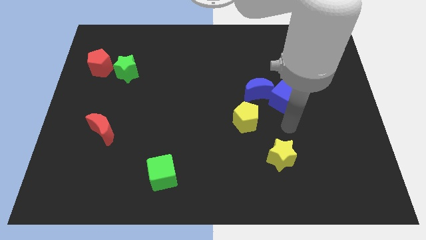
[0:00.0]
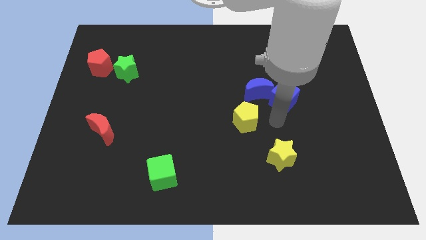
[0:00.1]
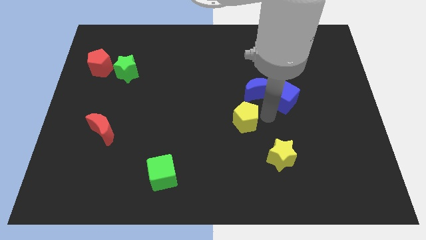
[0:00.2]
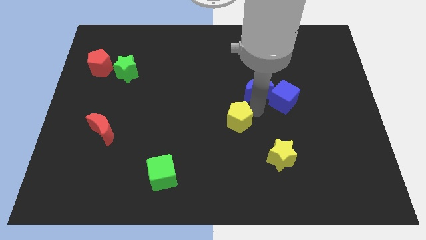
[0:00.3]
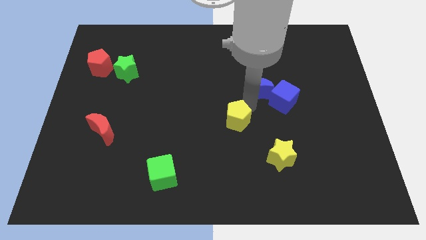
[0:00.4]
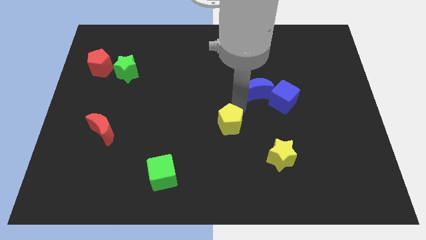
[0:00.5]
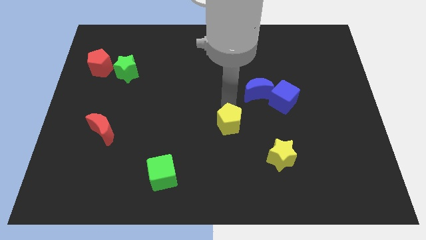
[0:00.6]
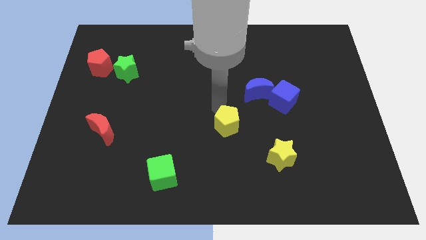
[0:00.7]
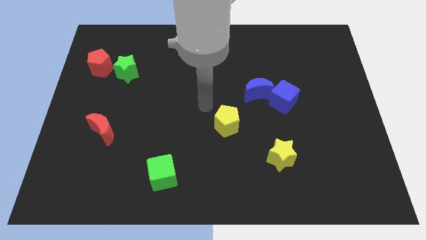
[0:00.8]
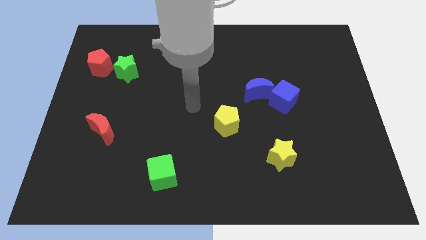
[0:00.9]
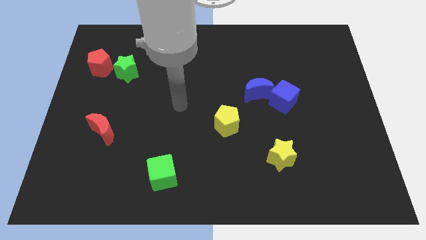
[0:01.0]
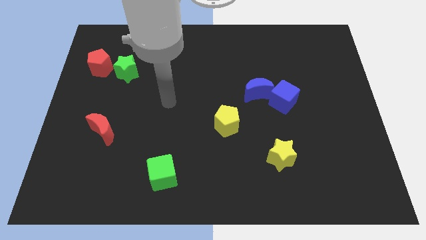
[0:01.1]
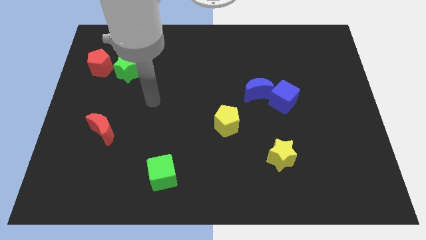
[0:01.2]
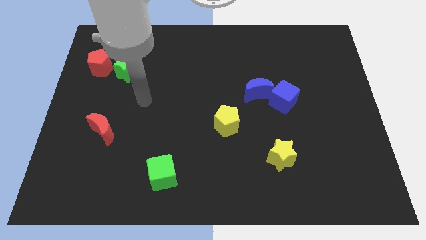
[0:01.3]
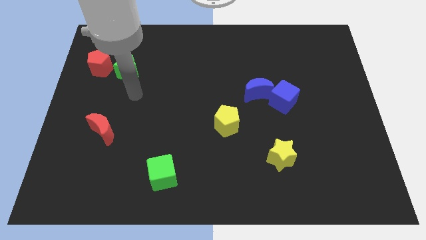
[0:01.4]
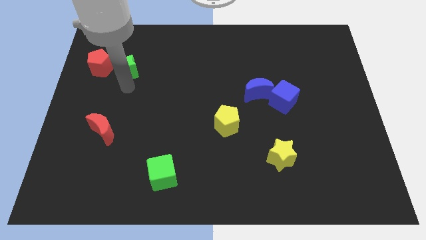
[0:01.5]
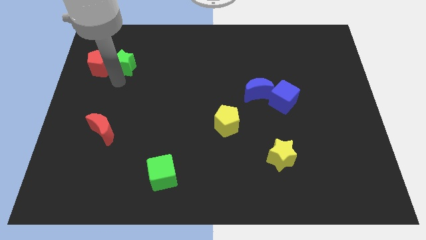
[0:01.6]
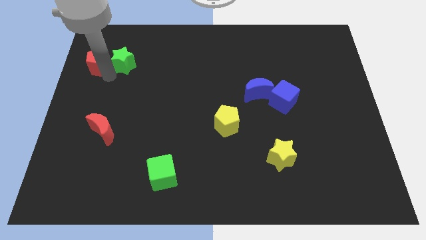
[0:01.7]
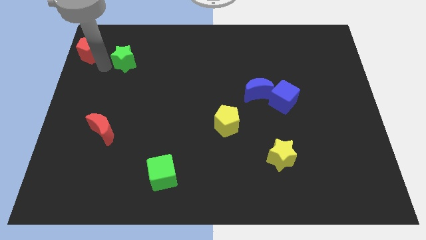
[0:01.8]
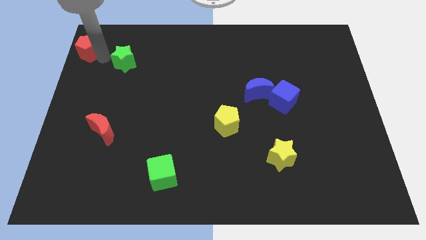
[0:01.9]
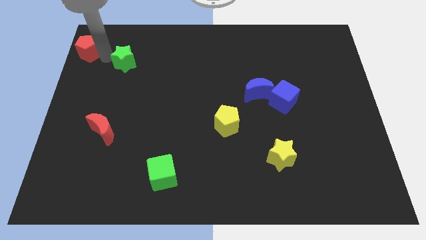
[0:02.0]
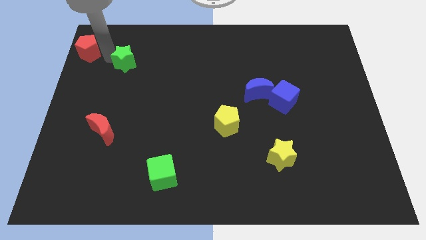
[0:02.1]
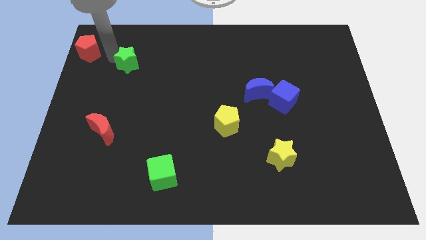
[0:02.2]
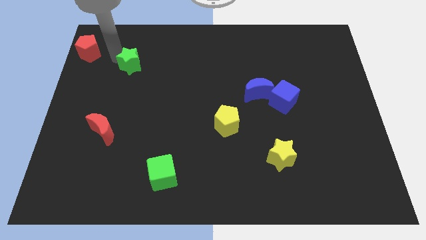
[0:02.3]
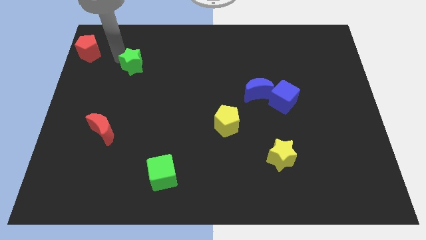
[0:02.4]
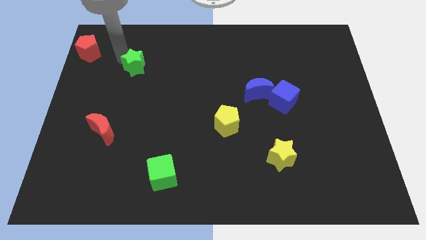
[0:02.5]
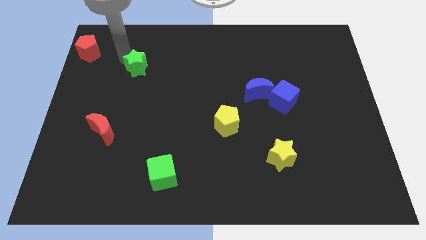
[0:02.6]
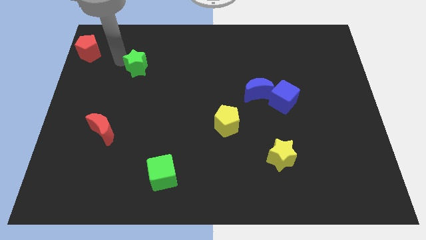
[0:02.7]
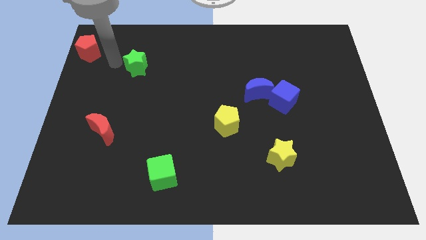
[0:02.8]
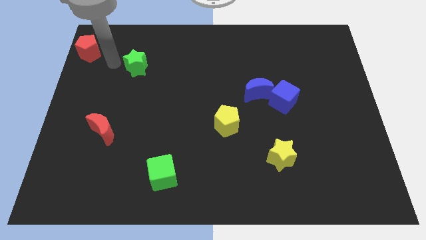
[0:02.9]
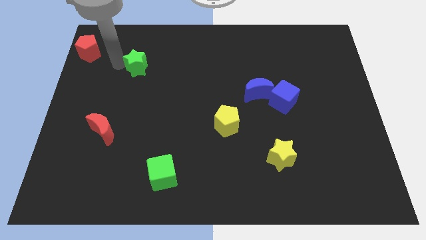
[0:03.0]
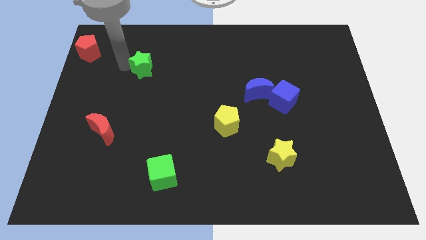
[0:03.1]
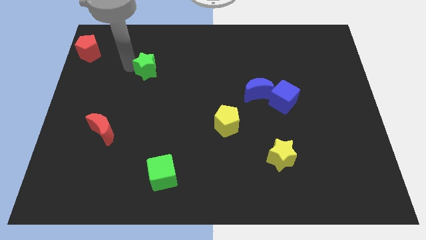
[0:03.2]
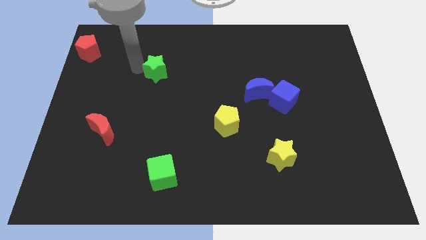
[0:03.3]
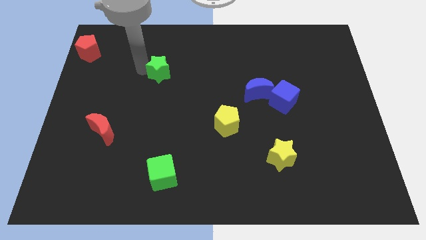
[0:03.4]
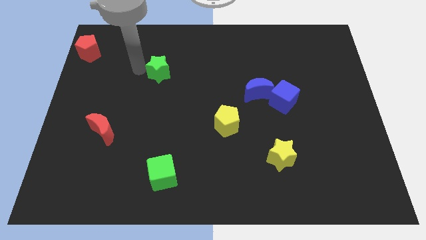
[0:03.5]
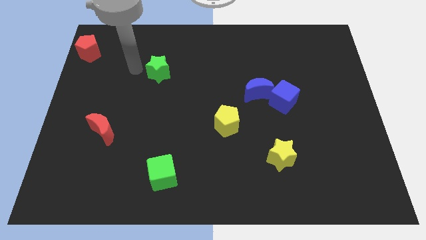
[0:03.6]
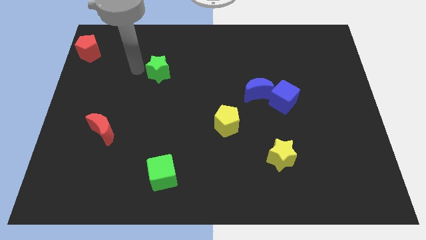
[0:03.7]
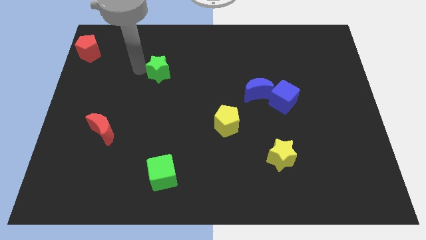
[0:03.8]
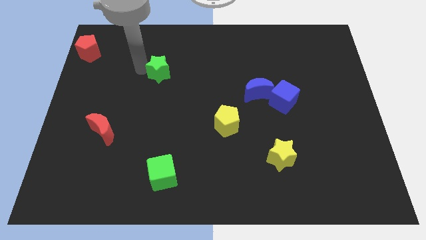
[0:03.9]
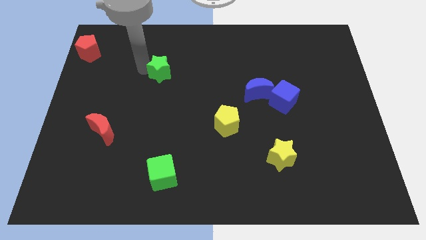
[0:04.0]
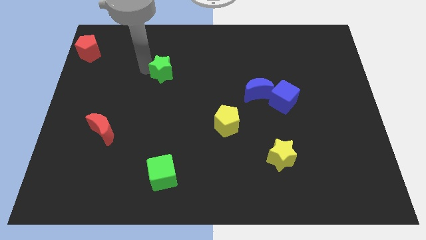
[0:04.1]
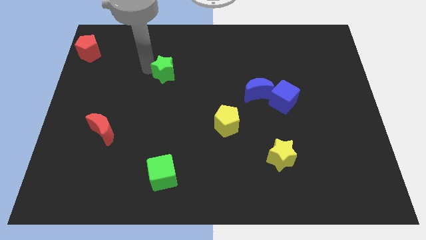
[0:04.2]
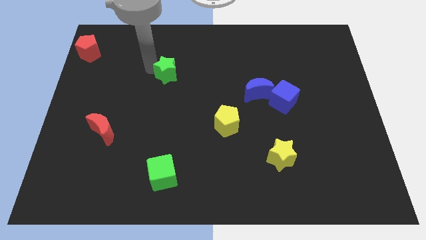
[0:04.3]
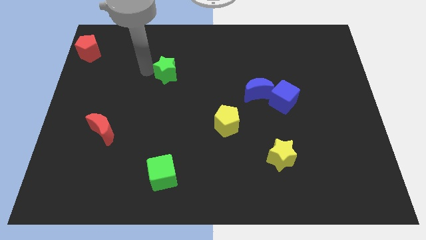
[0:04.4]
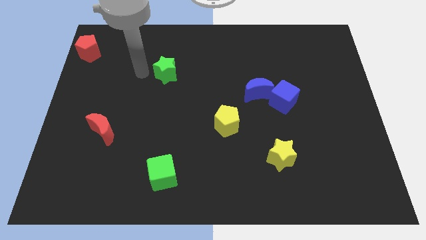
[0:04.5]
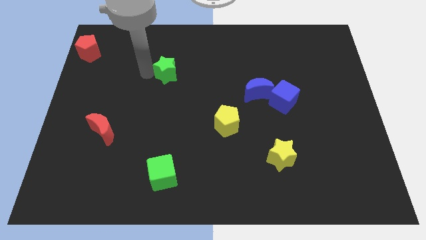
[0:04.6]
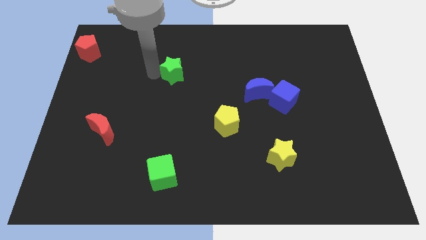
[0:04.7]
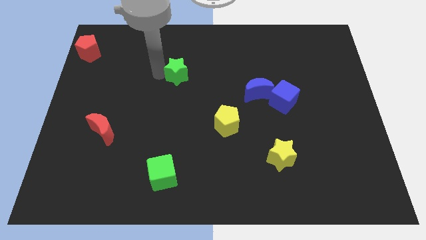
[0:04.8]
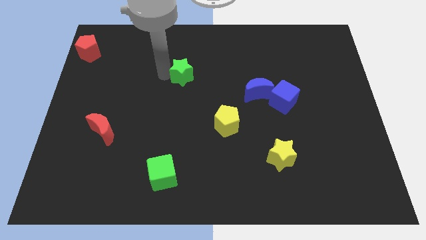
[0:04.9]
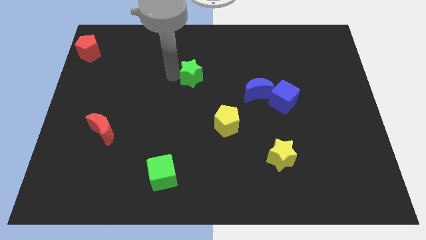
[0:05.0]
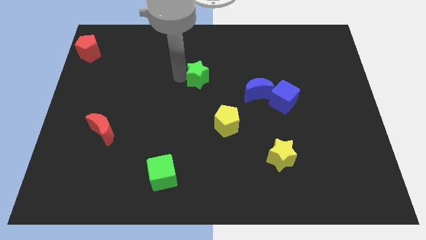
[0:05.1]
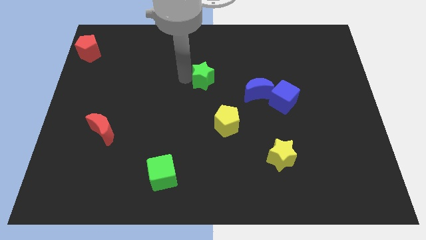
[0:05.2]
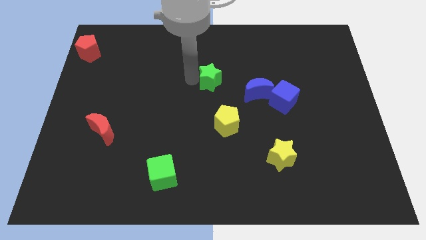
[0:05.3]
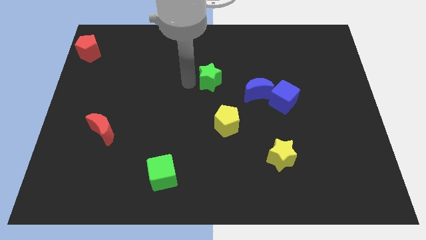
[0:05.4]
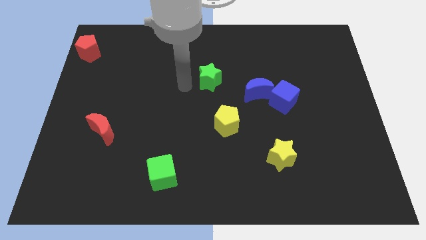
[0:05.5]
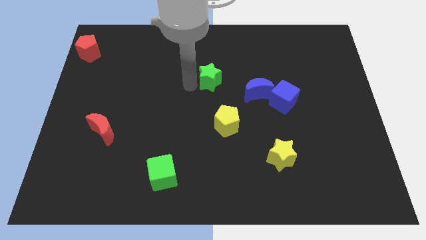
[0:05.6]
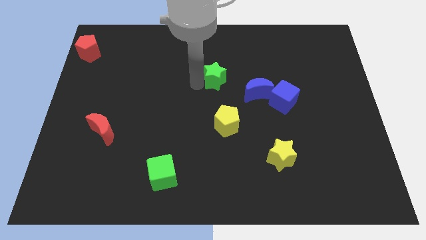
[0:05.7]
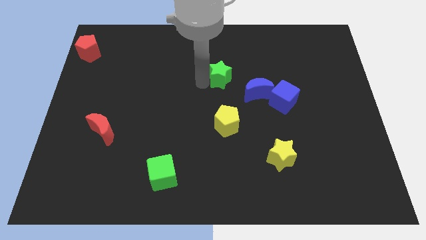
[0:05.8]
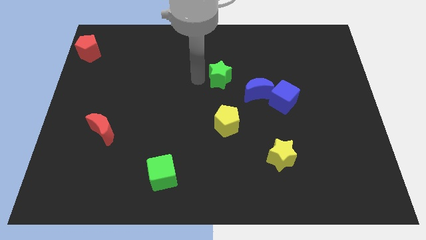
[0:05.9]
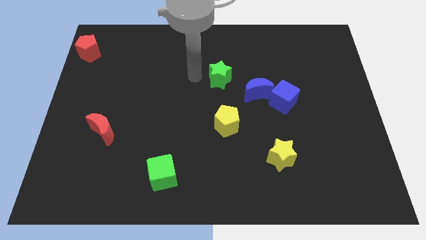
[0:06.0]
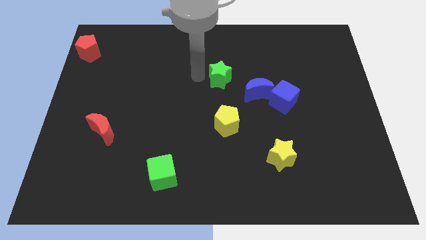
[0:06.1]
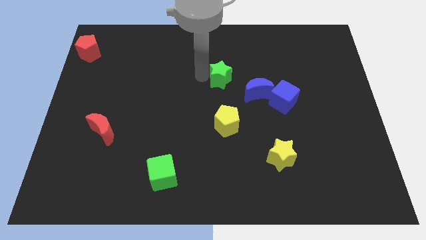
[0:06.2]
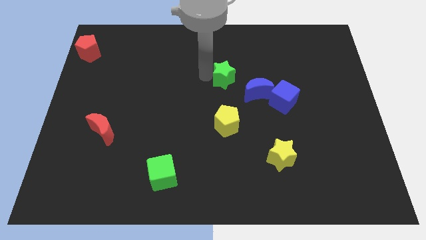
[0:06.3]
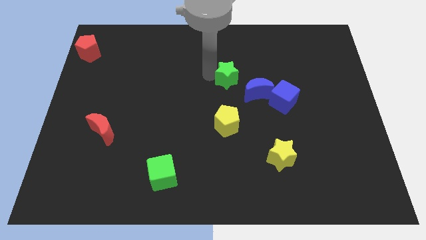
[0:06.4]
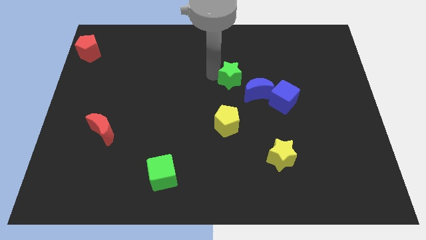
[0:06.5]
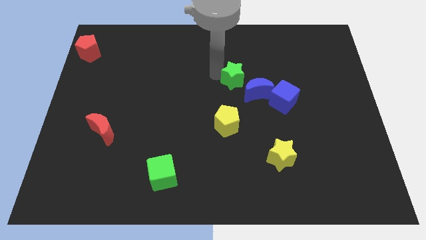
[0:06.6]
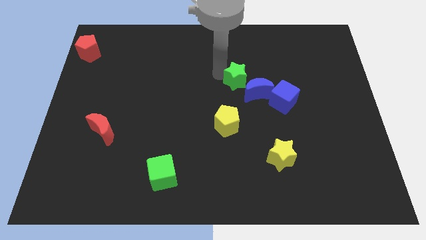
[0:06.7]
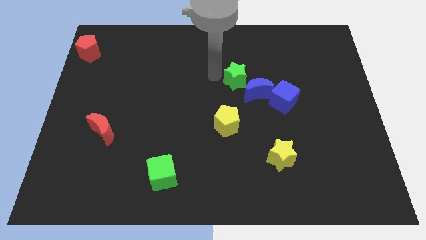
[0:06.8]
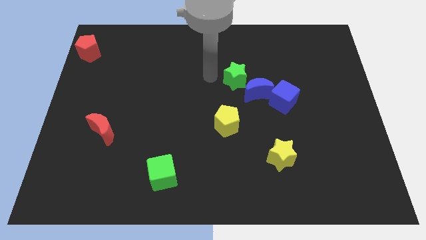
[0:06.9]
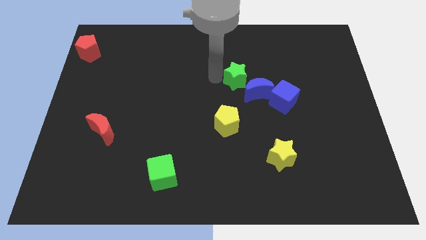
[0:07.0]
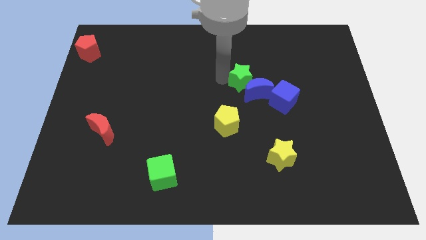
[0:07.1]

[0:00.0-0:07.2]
put the green star to the top left of the blue cube
